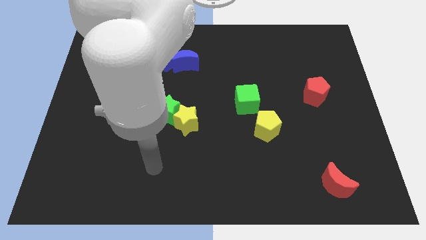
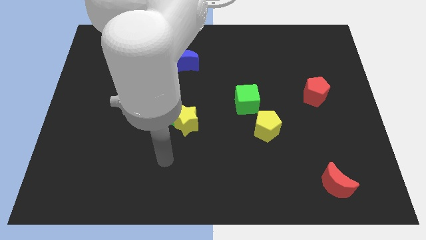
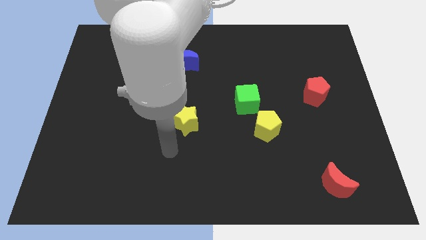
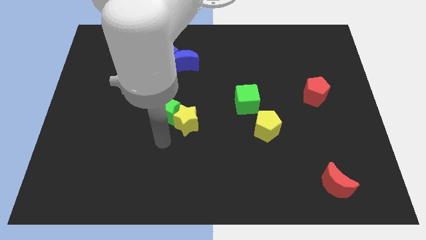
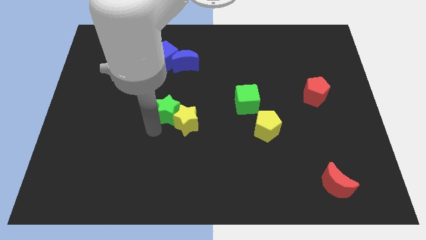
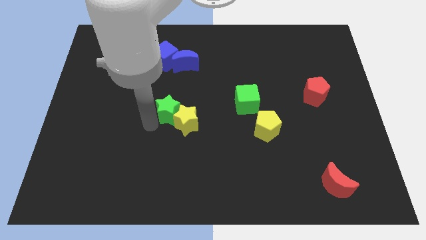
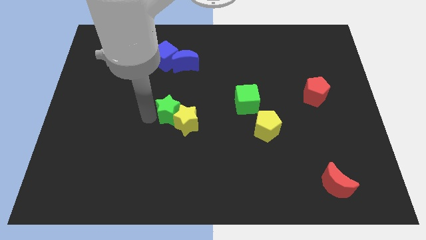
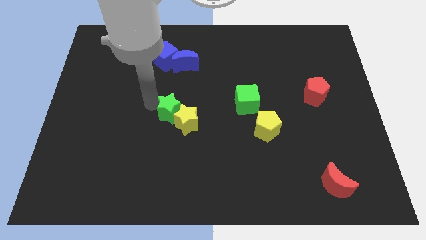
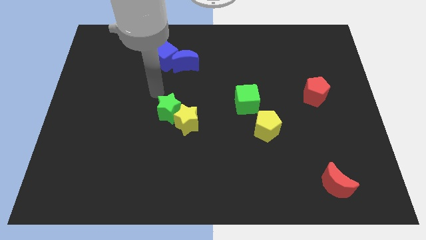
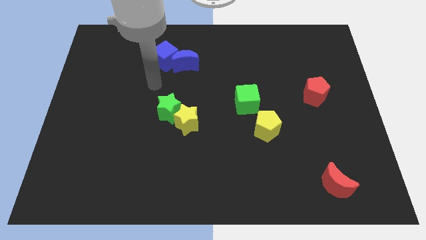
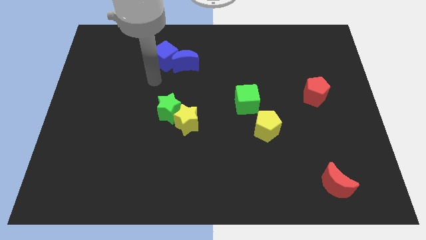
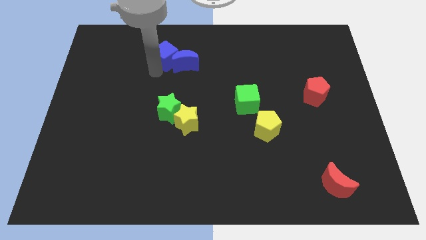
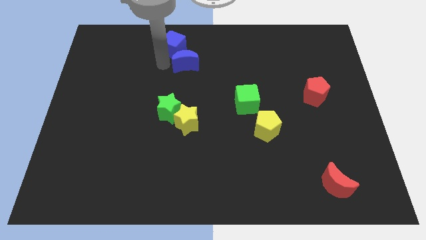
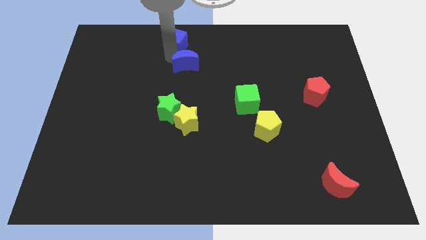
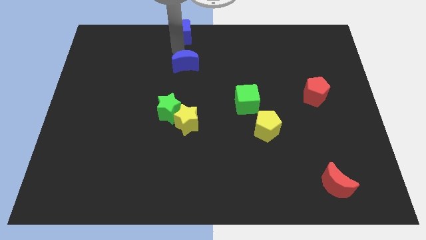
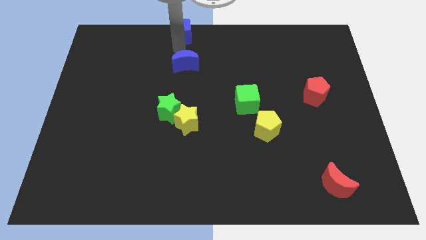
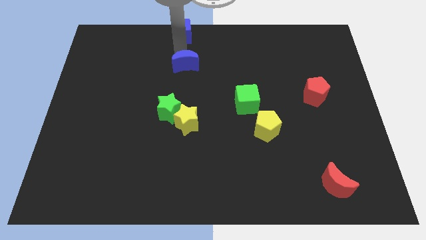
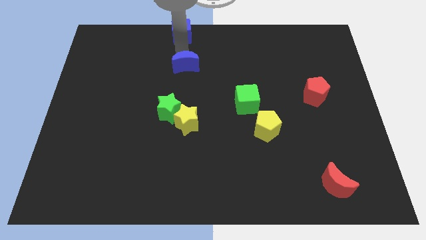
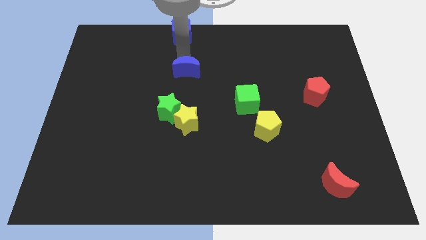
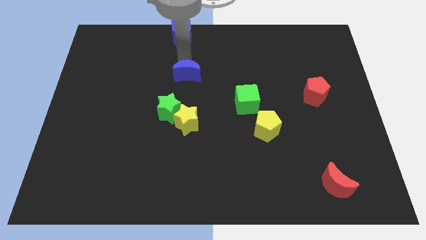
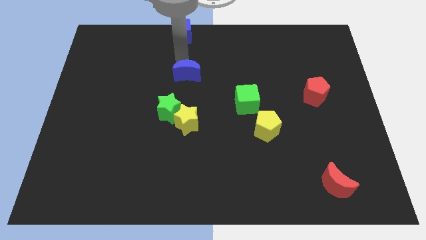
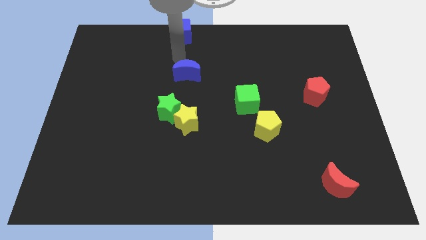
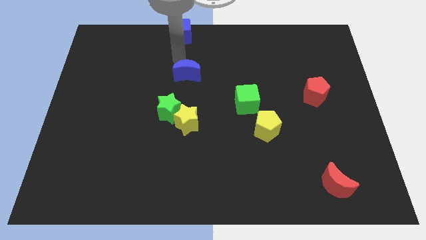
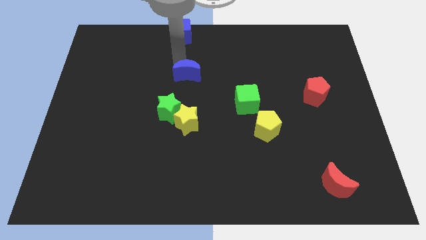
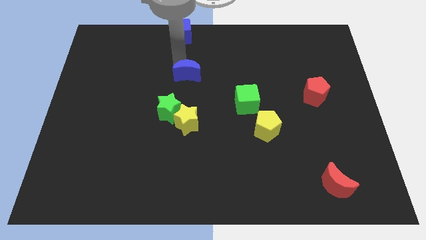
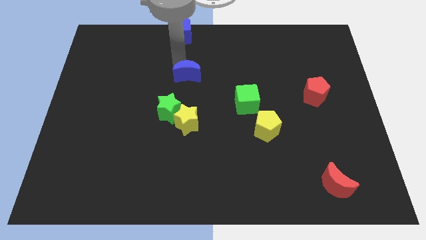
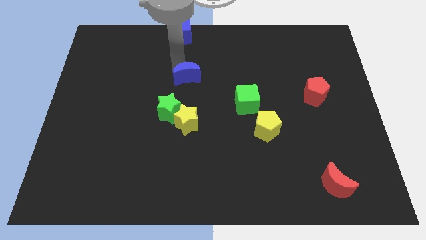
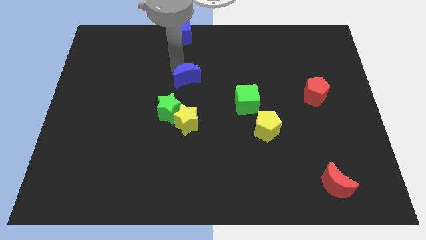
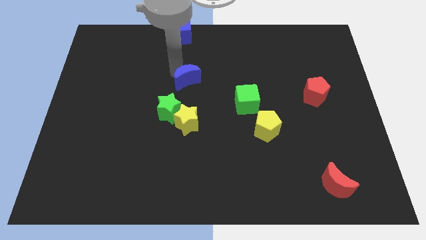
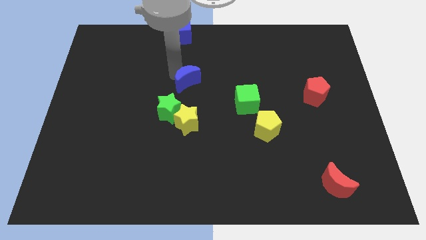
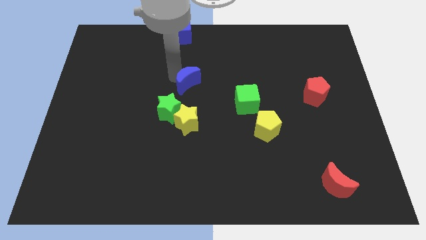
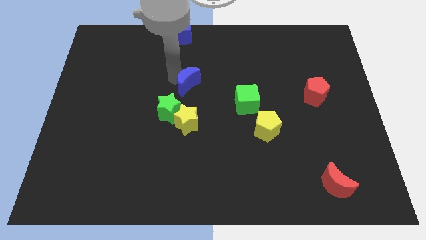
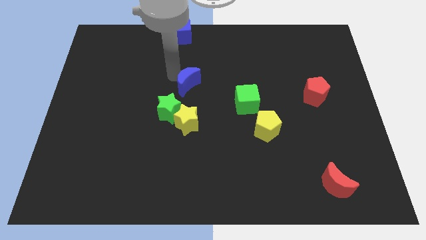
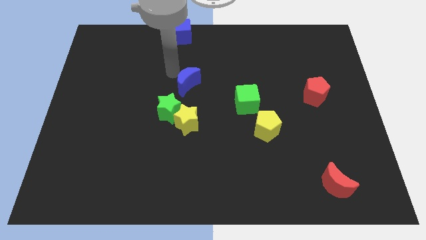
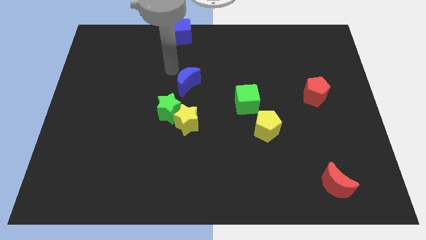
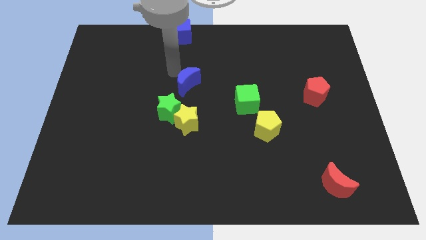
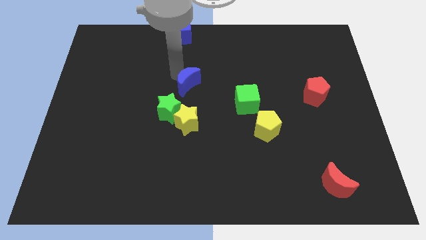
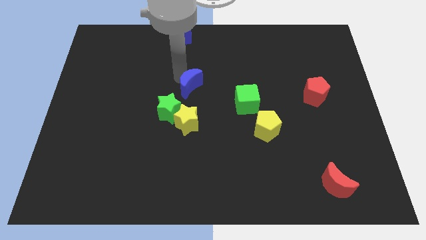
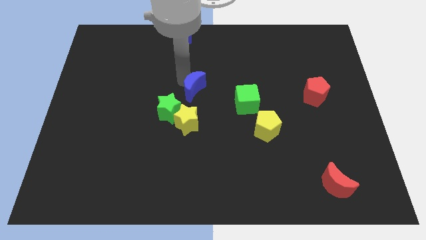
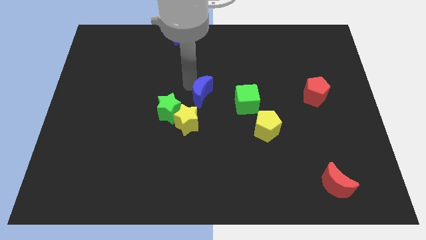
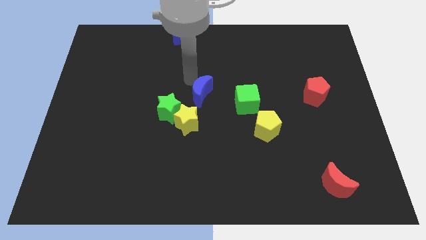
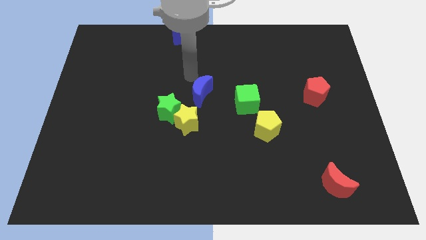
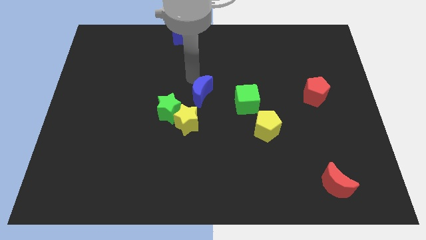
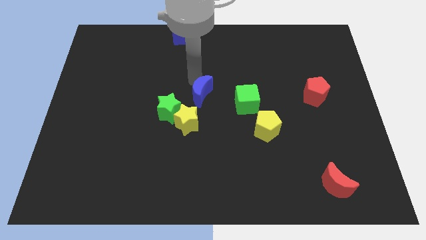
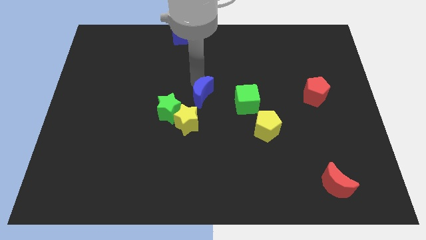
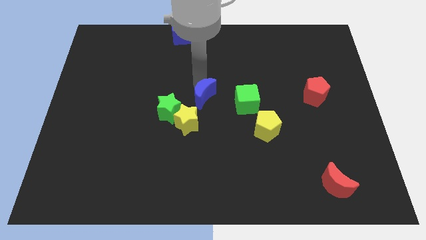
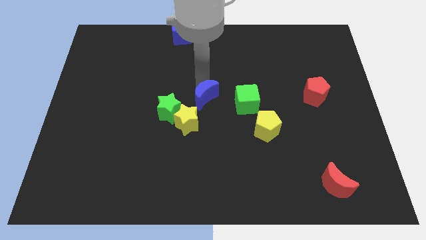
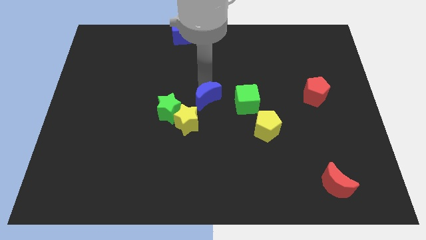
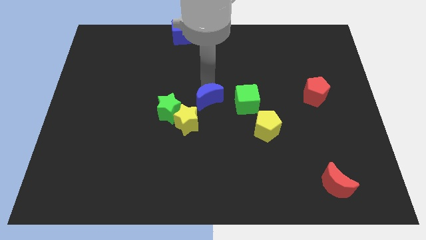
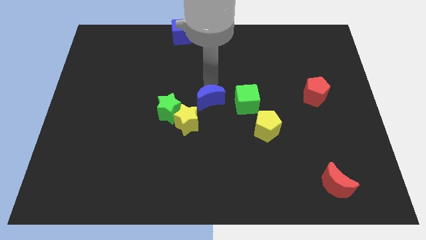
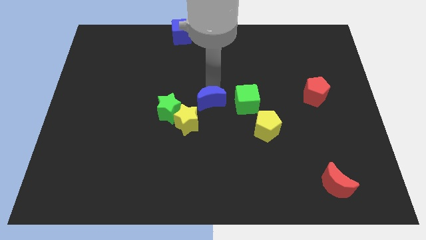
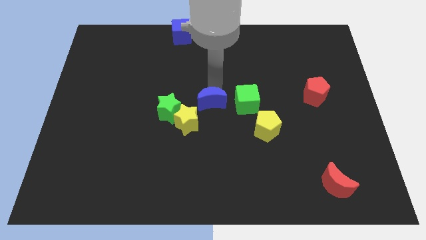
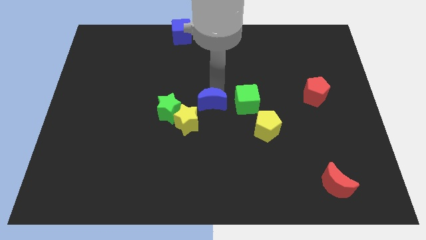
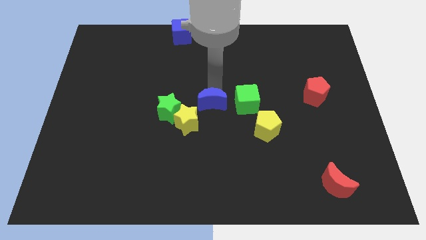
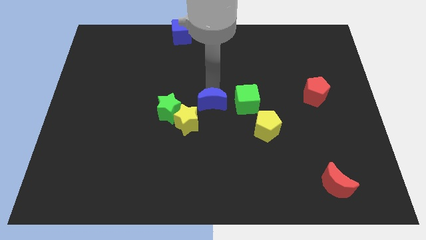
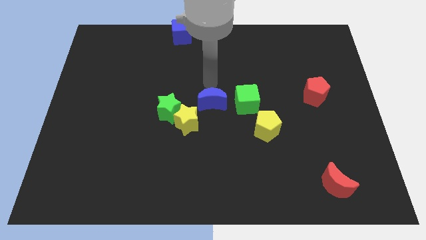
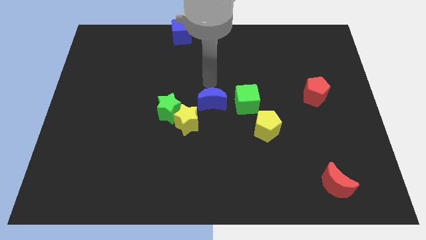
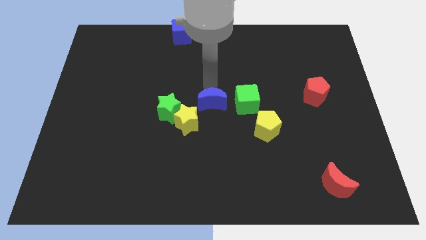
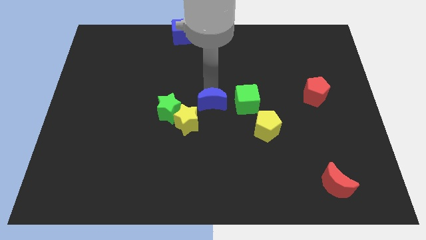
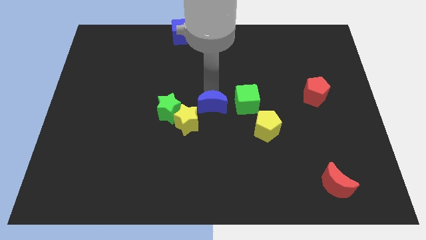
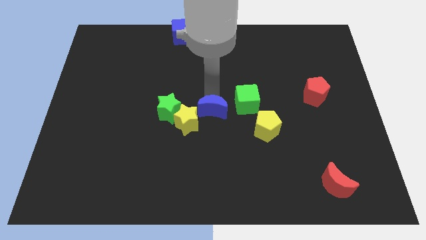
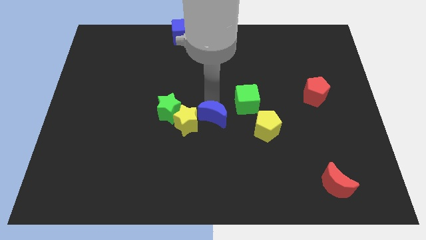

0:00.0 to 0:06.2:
slide the blue moon to the left side of the yellow pentagon

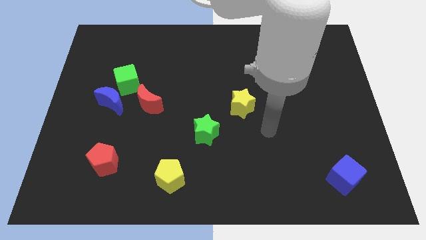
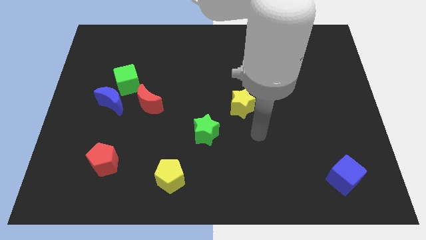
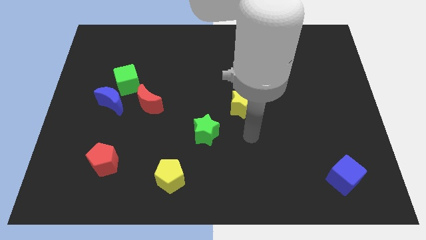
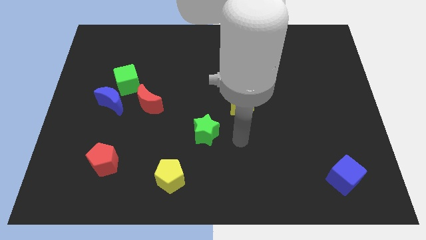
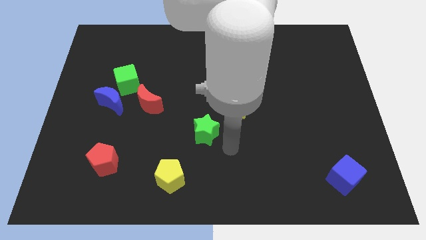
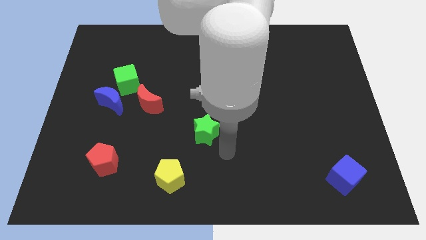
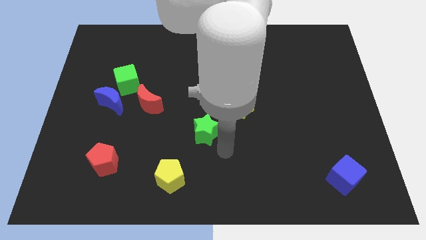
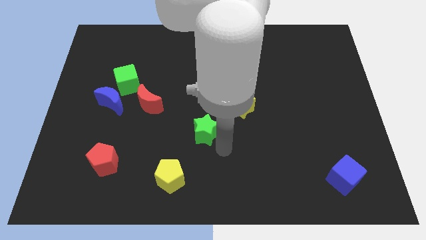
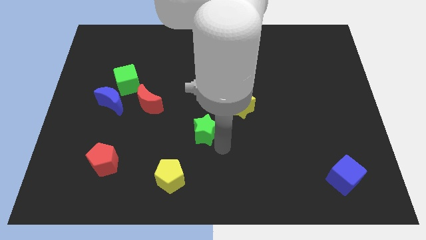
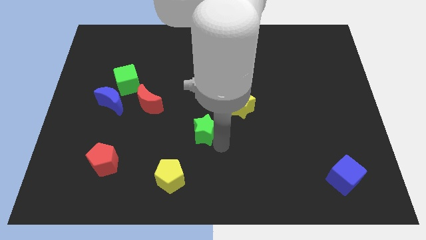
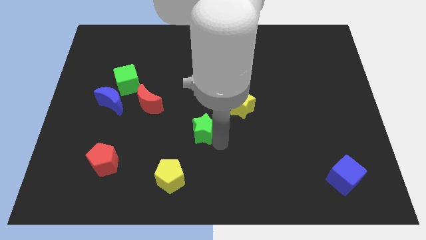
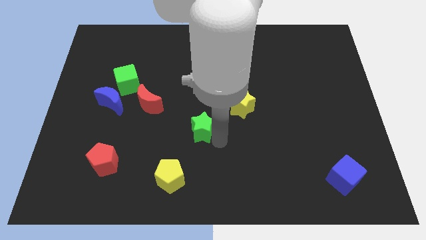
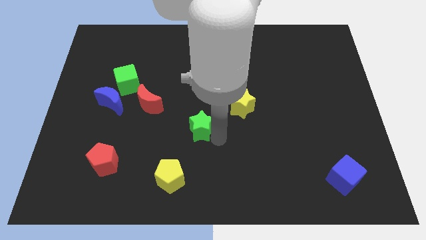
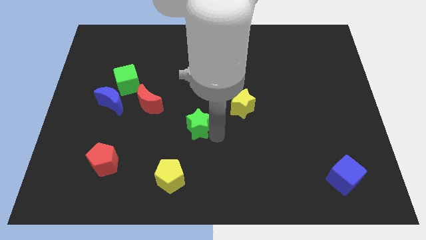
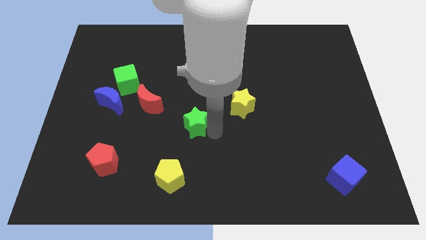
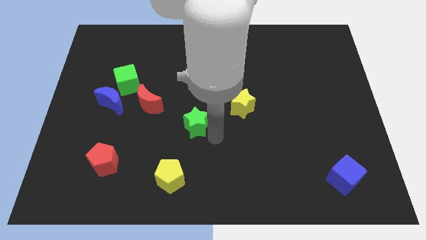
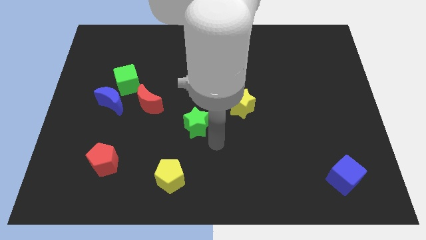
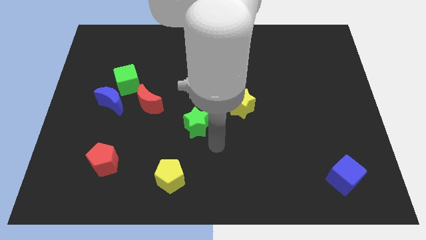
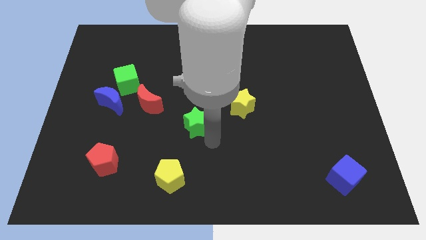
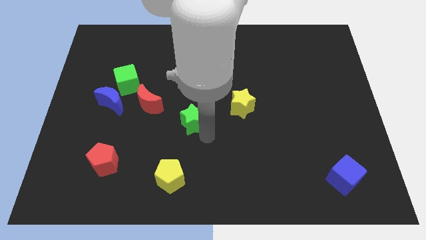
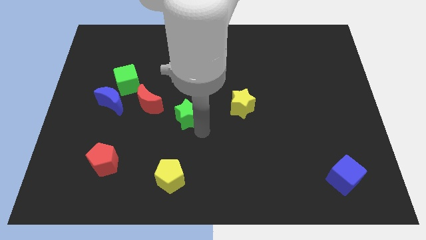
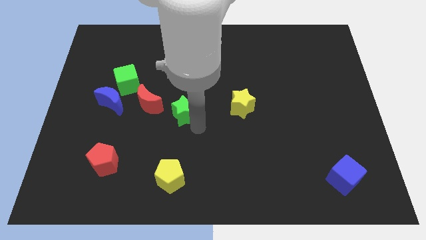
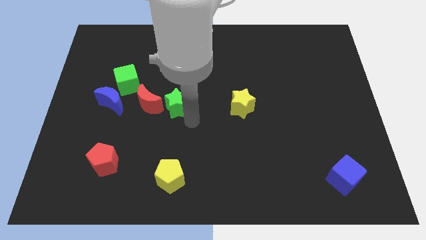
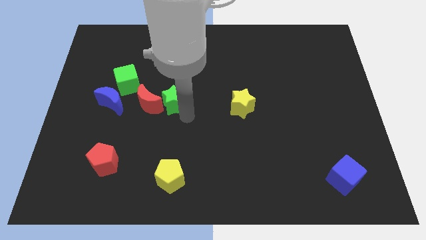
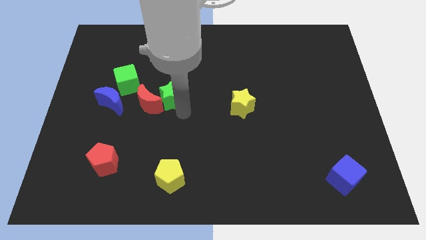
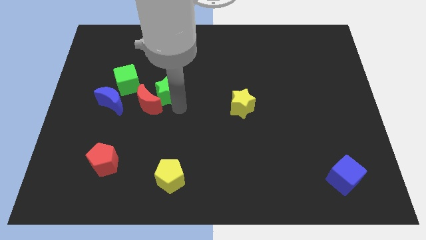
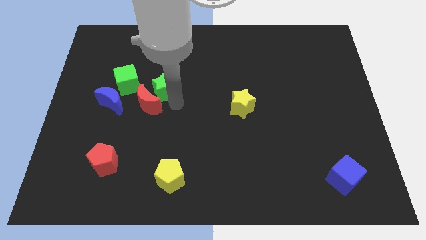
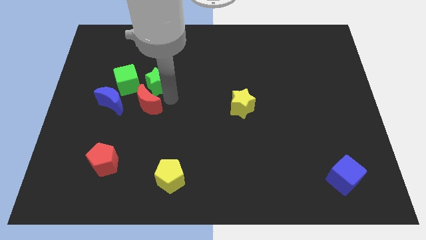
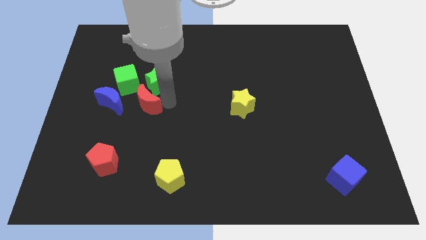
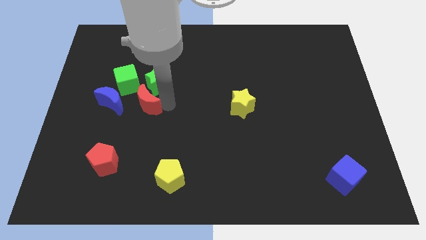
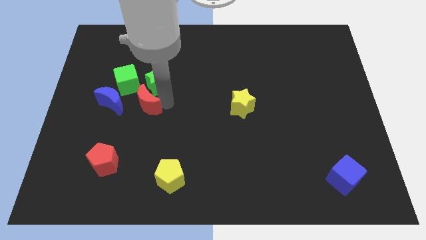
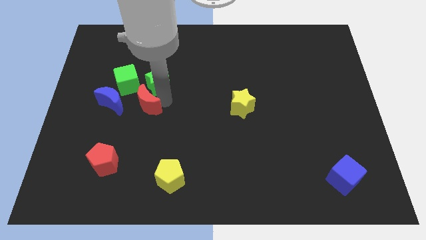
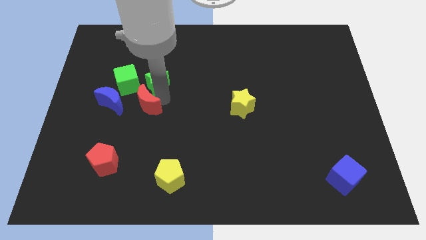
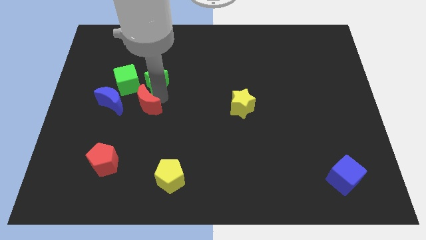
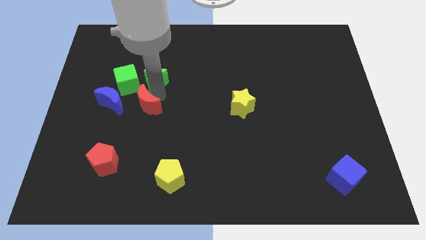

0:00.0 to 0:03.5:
push the green star to the top right of the green cube
